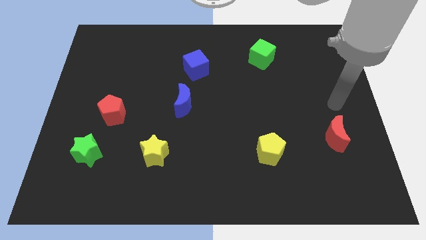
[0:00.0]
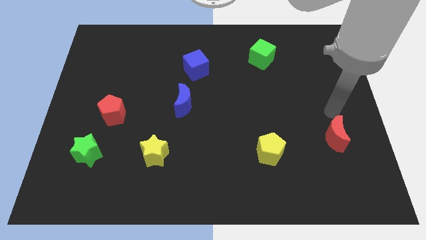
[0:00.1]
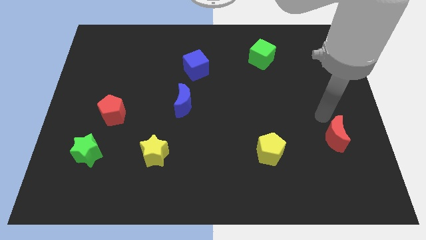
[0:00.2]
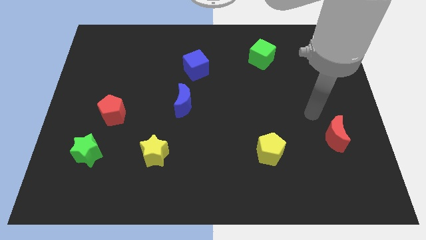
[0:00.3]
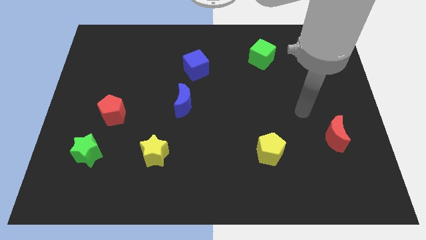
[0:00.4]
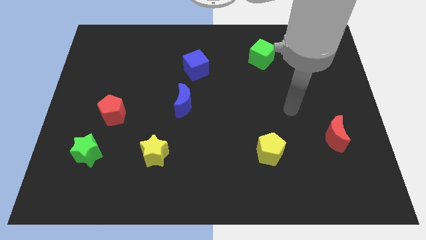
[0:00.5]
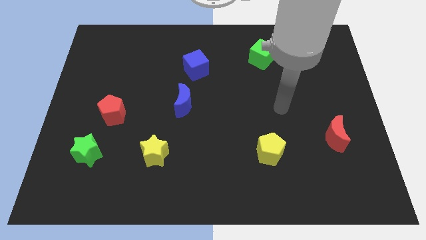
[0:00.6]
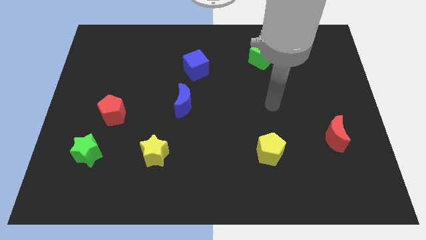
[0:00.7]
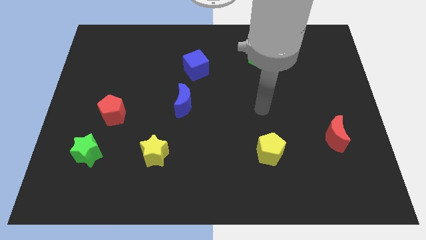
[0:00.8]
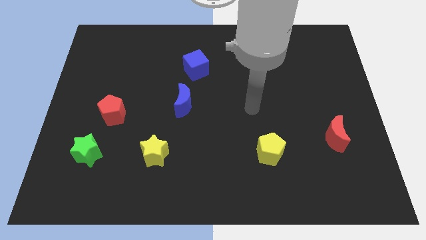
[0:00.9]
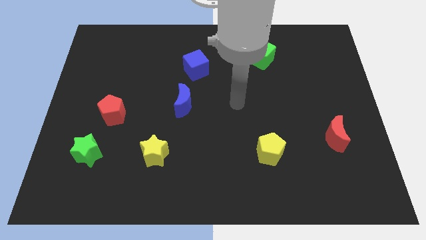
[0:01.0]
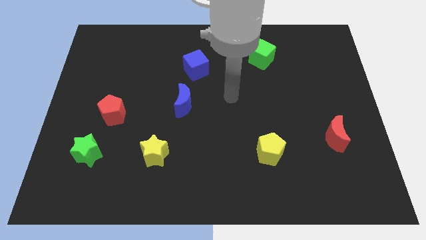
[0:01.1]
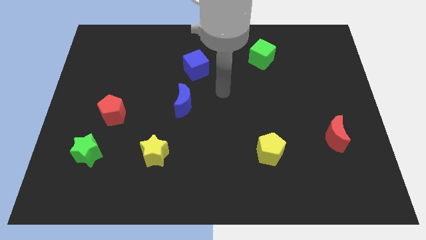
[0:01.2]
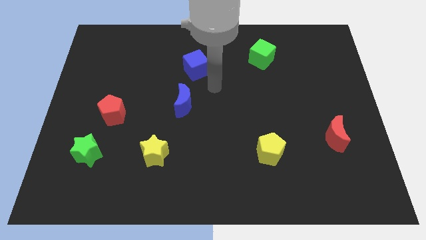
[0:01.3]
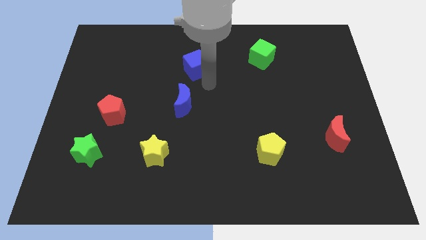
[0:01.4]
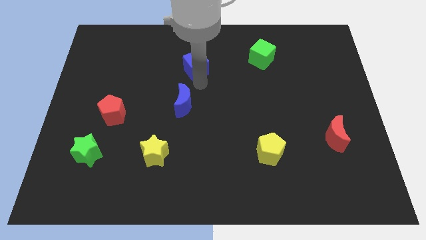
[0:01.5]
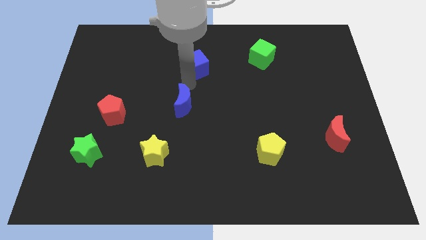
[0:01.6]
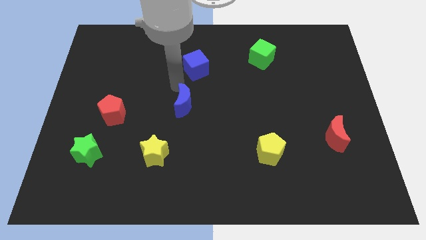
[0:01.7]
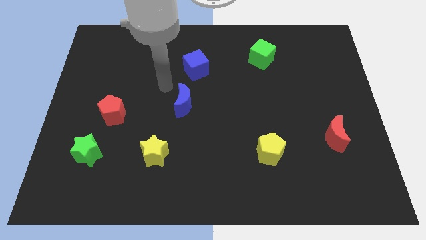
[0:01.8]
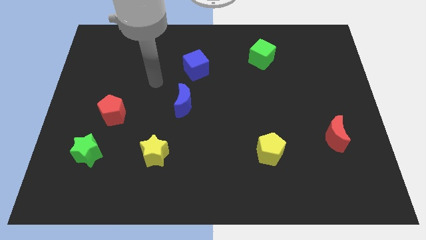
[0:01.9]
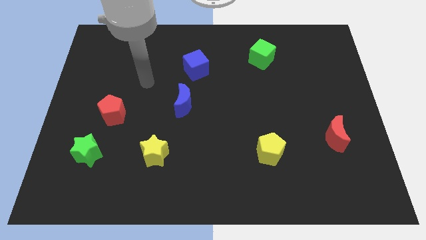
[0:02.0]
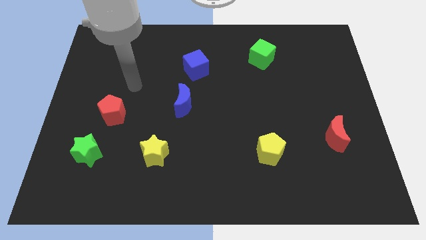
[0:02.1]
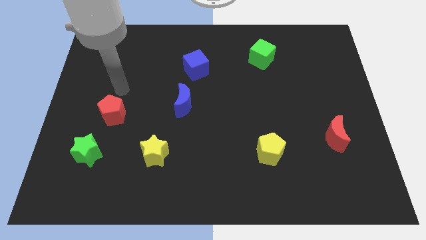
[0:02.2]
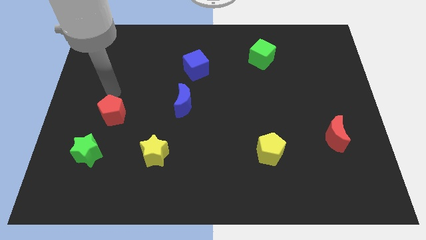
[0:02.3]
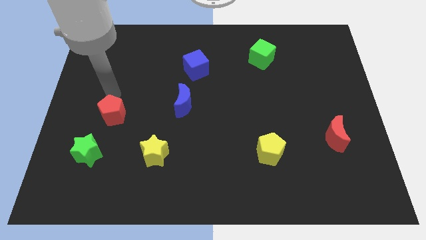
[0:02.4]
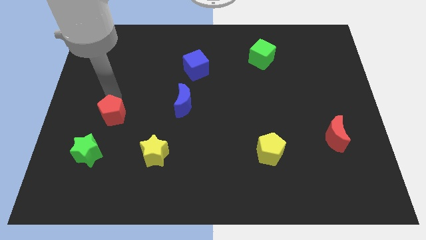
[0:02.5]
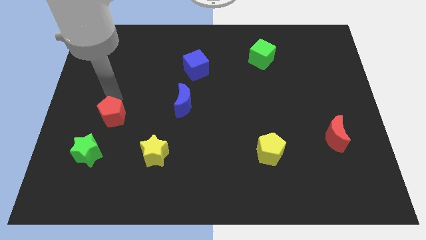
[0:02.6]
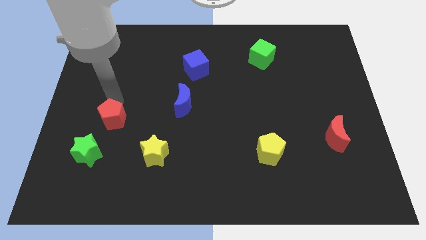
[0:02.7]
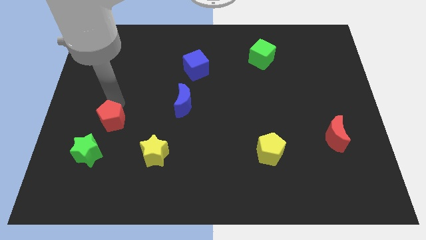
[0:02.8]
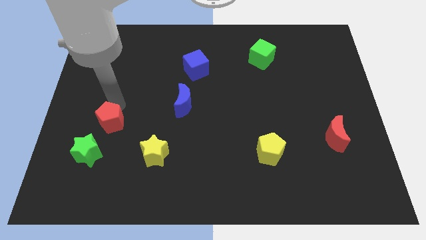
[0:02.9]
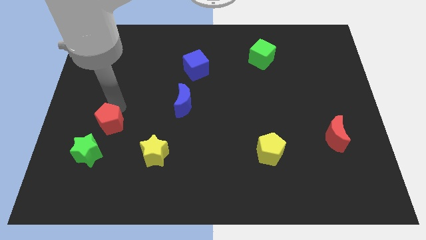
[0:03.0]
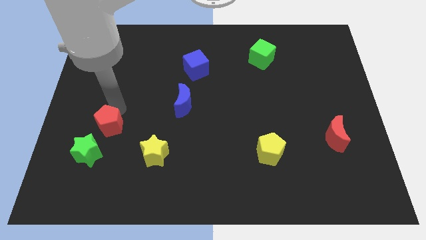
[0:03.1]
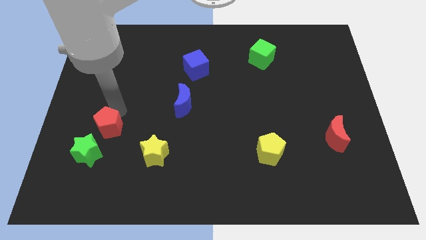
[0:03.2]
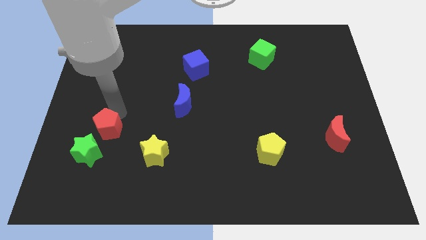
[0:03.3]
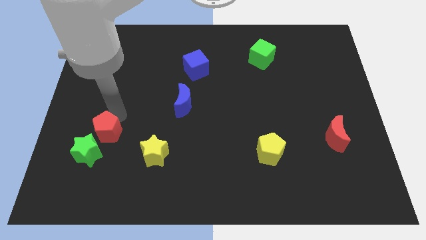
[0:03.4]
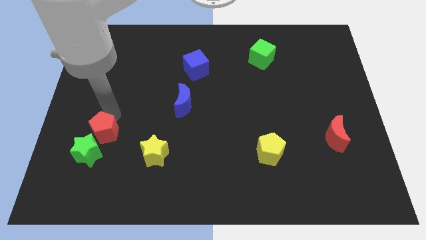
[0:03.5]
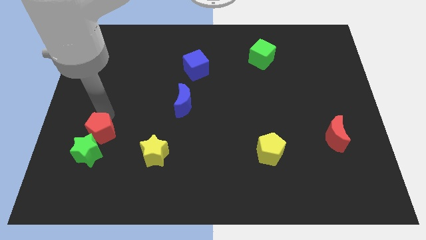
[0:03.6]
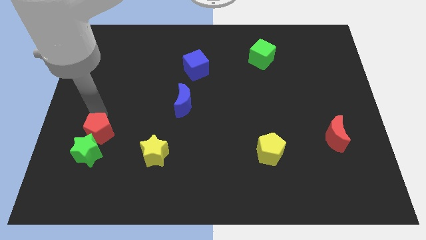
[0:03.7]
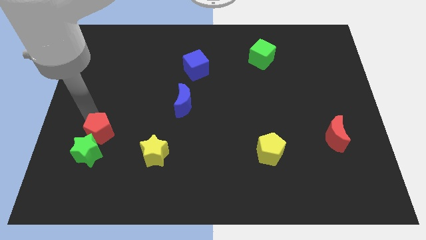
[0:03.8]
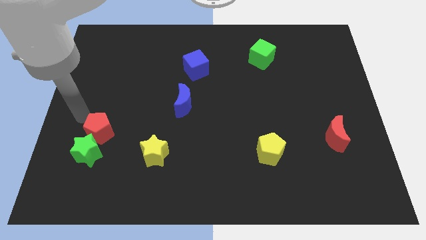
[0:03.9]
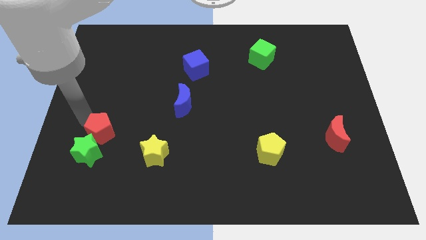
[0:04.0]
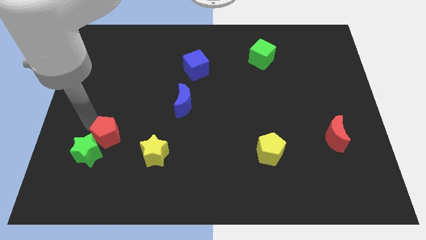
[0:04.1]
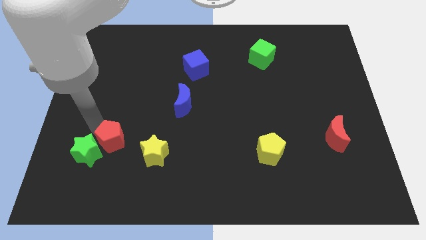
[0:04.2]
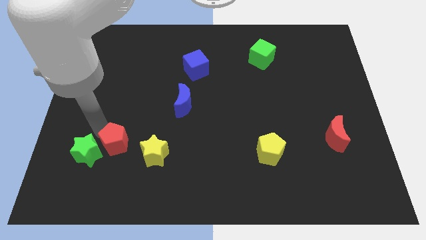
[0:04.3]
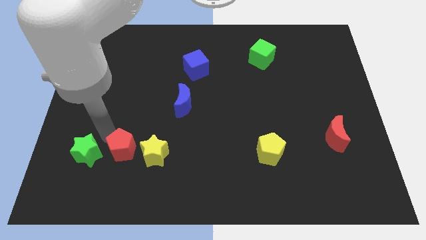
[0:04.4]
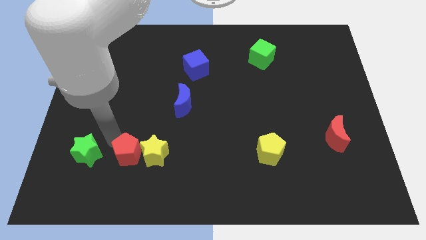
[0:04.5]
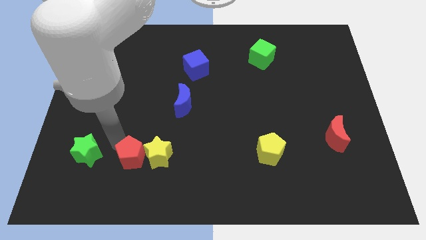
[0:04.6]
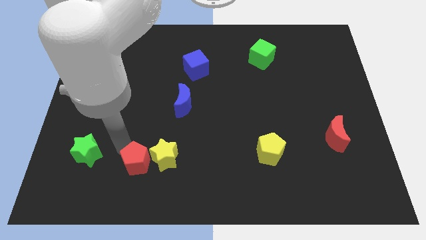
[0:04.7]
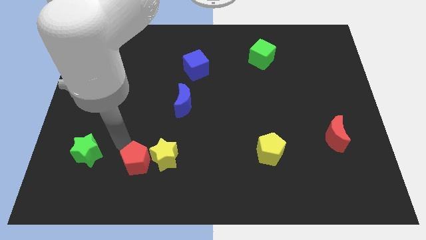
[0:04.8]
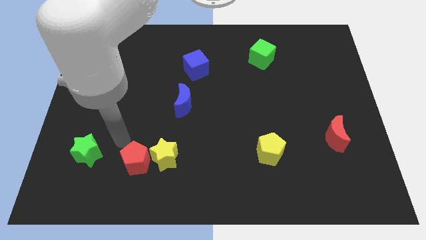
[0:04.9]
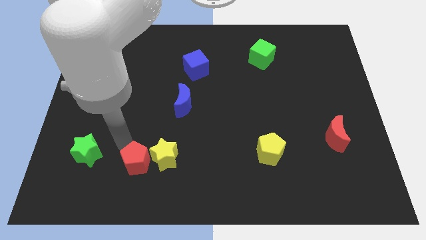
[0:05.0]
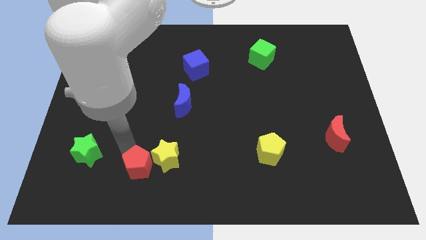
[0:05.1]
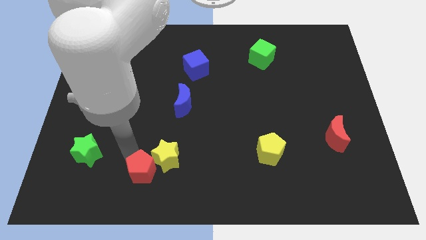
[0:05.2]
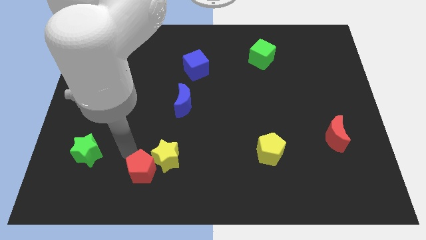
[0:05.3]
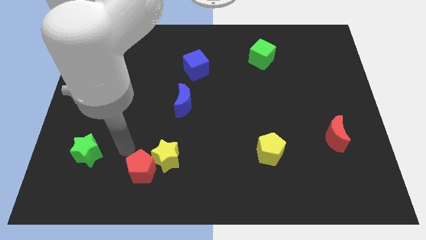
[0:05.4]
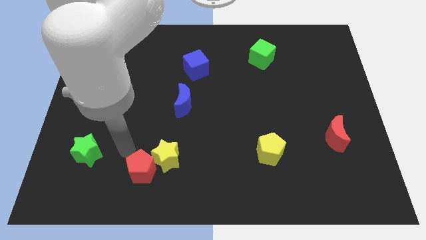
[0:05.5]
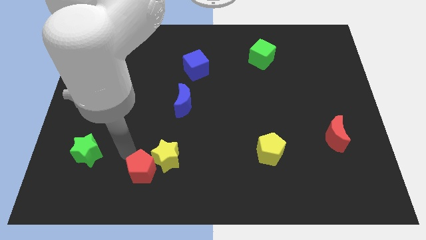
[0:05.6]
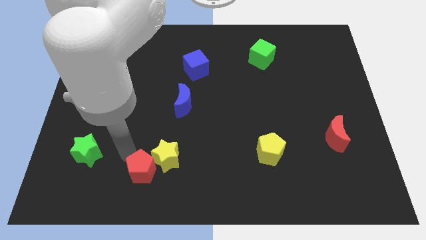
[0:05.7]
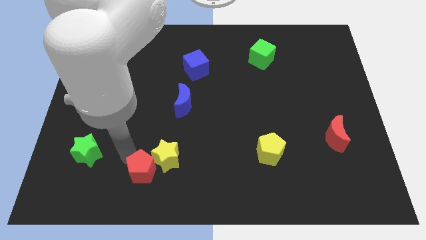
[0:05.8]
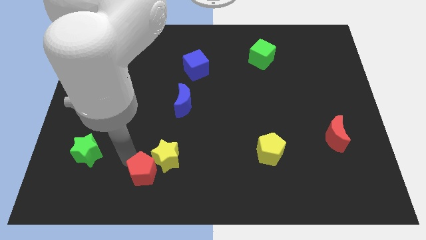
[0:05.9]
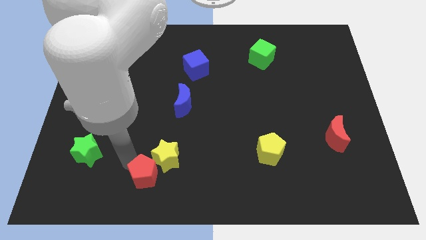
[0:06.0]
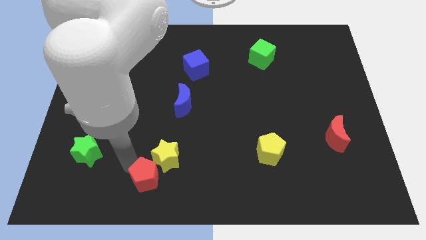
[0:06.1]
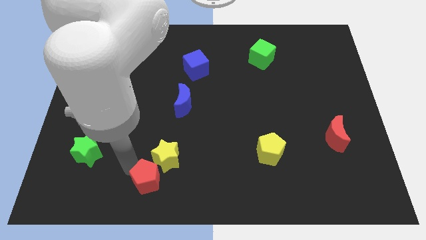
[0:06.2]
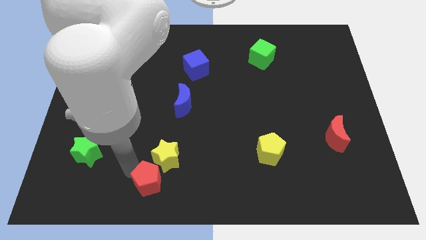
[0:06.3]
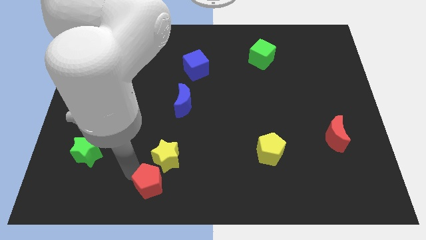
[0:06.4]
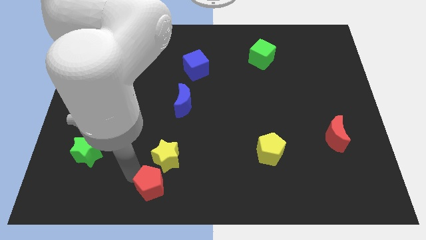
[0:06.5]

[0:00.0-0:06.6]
slide the red pentagon to the bottom

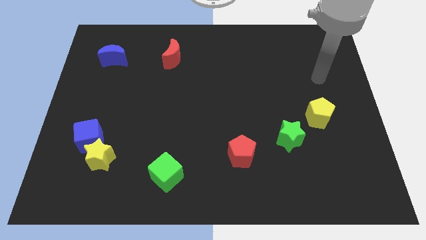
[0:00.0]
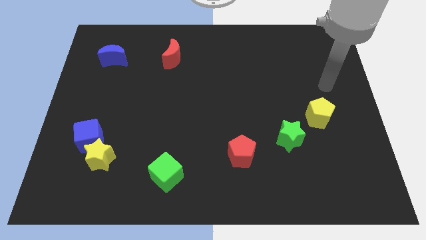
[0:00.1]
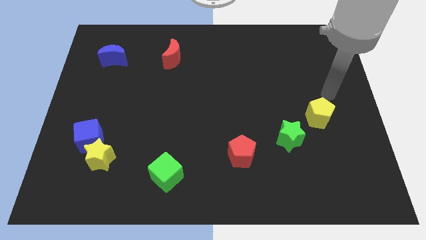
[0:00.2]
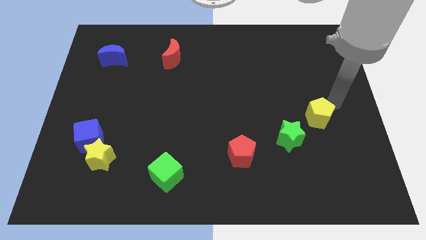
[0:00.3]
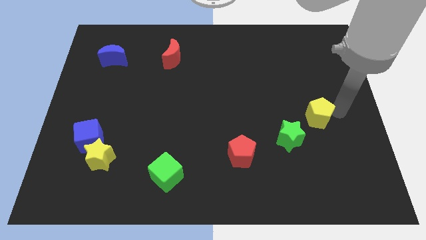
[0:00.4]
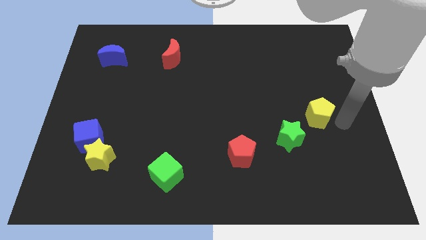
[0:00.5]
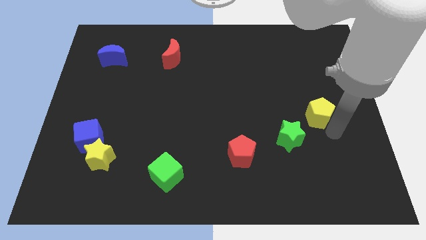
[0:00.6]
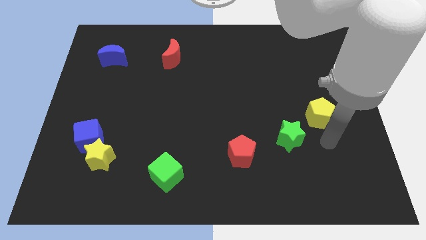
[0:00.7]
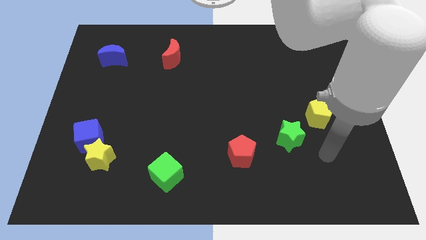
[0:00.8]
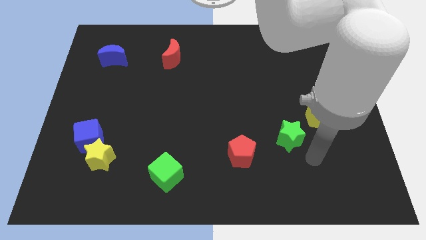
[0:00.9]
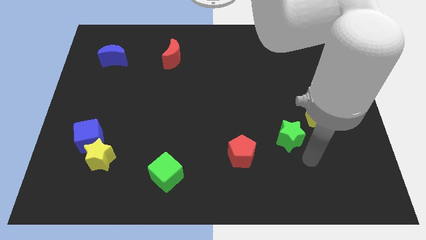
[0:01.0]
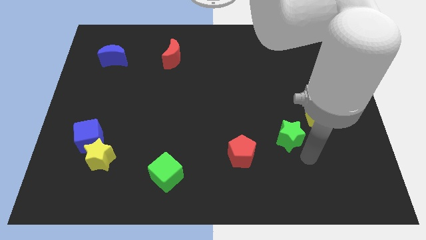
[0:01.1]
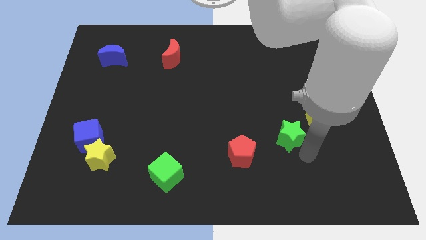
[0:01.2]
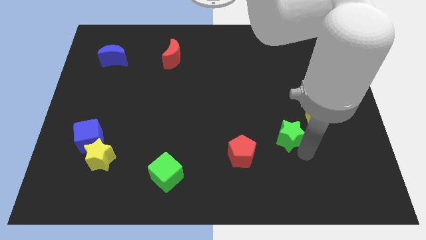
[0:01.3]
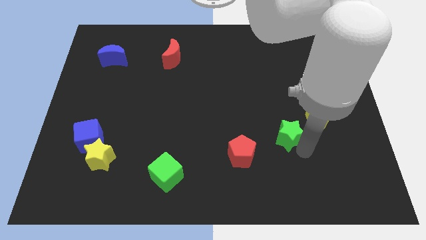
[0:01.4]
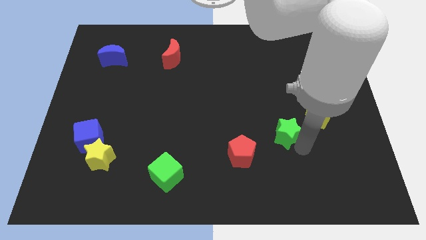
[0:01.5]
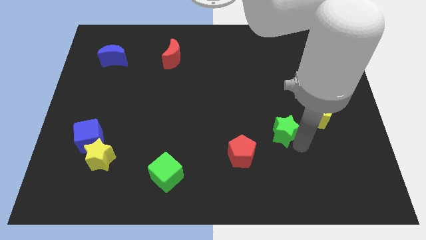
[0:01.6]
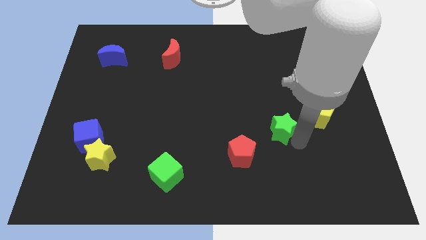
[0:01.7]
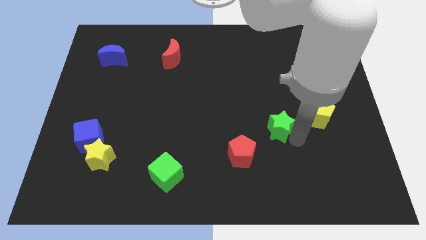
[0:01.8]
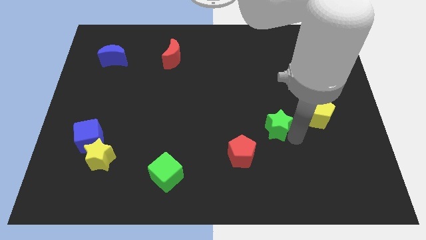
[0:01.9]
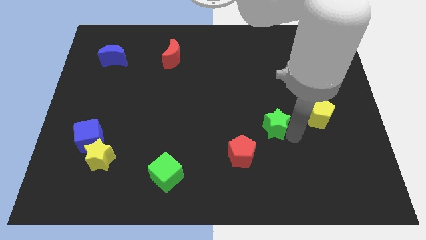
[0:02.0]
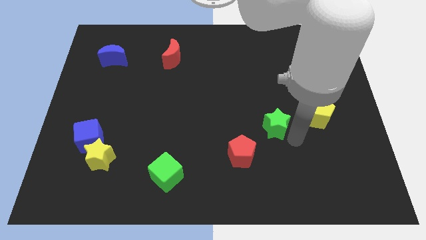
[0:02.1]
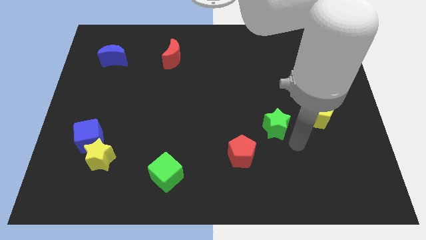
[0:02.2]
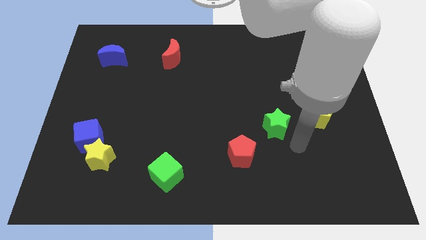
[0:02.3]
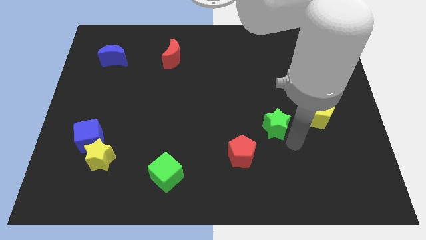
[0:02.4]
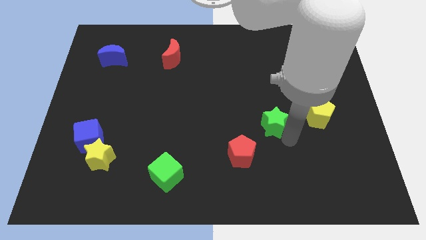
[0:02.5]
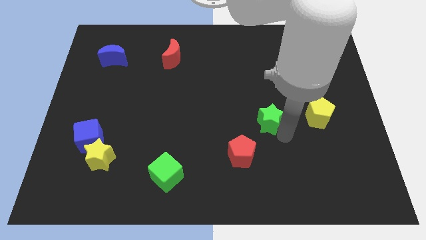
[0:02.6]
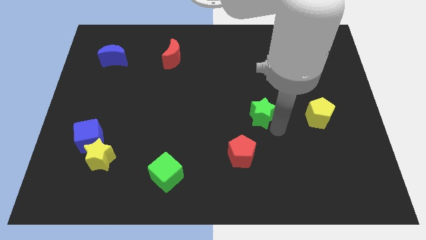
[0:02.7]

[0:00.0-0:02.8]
put the green star to the center of the board
